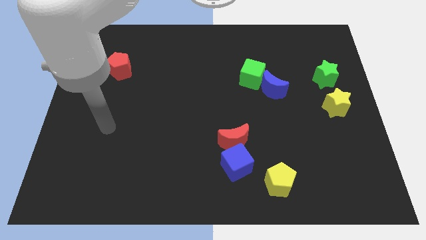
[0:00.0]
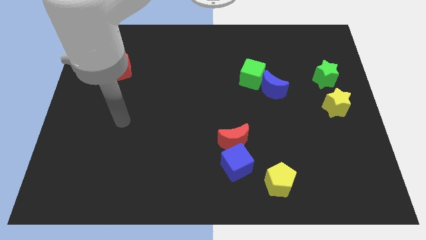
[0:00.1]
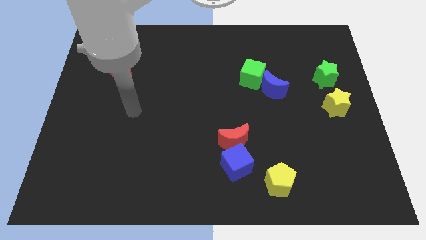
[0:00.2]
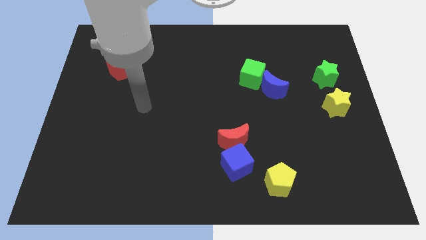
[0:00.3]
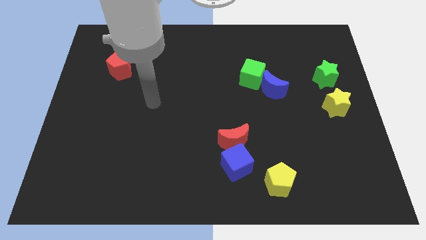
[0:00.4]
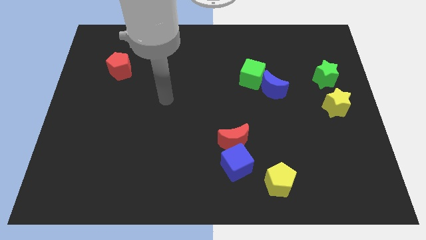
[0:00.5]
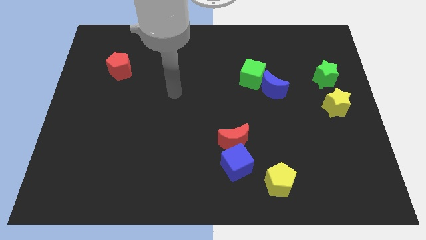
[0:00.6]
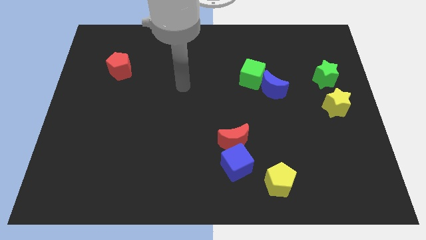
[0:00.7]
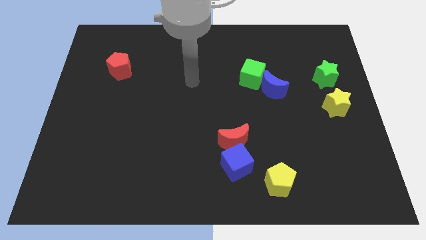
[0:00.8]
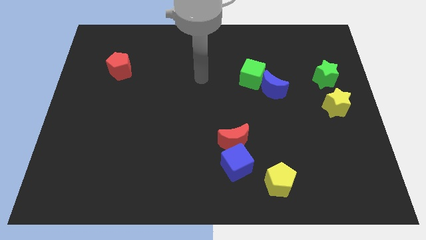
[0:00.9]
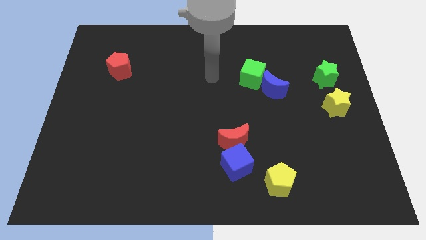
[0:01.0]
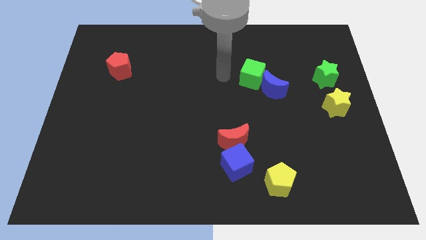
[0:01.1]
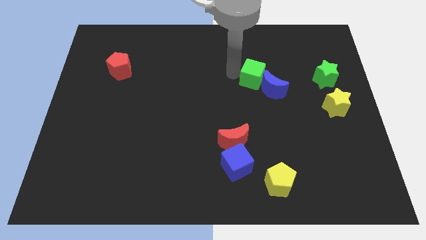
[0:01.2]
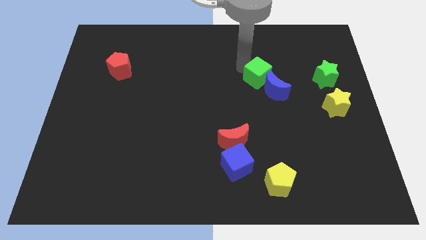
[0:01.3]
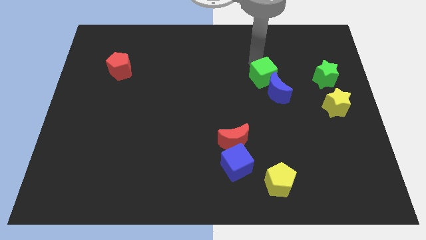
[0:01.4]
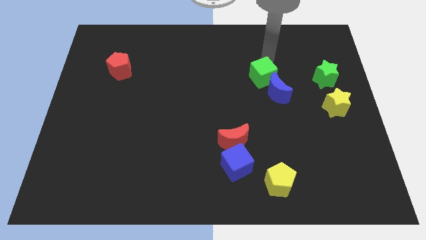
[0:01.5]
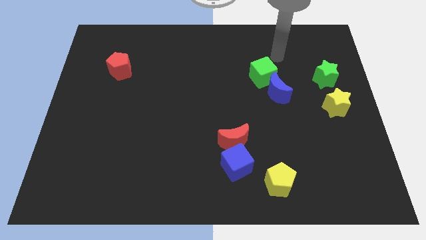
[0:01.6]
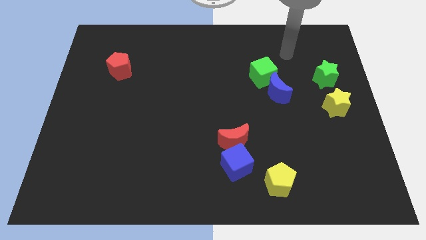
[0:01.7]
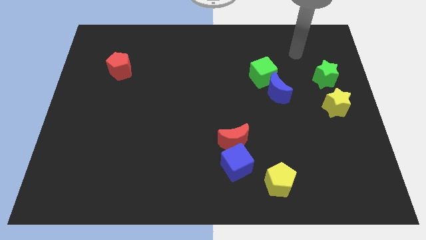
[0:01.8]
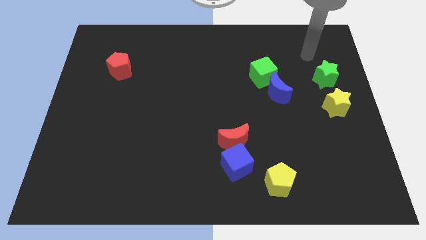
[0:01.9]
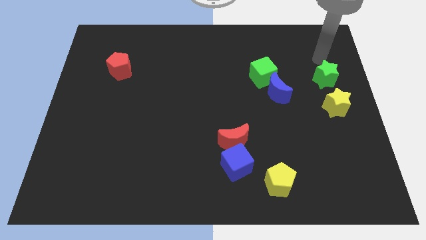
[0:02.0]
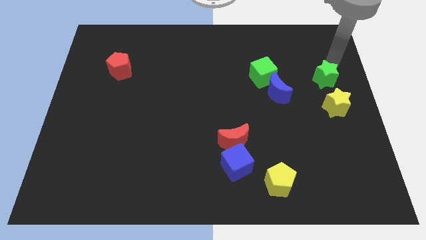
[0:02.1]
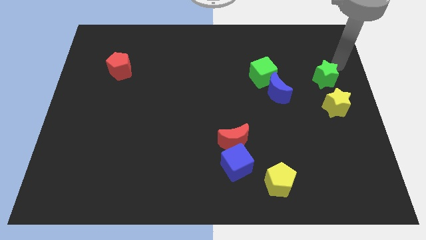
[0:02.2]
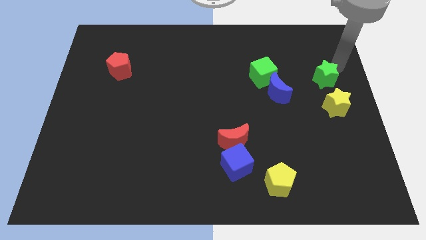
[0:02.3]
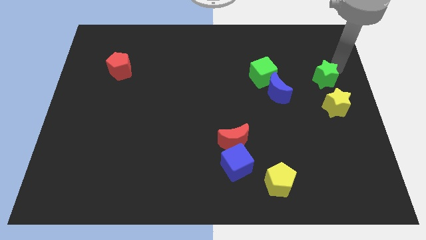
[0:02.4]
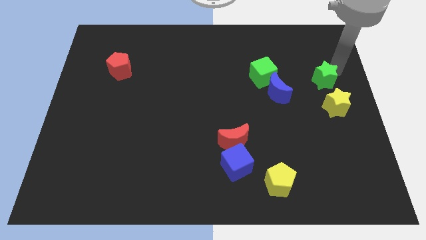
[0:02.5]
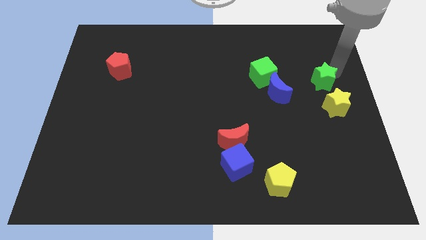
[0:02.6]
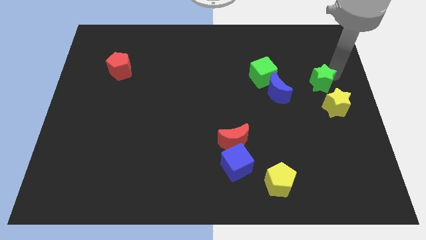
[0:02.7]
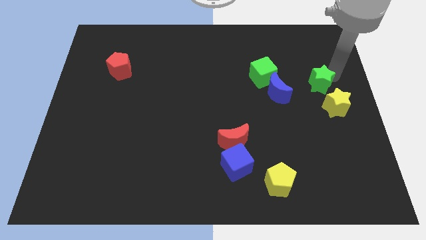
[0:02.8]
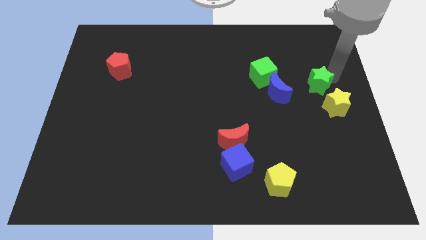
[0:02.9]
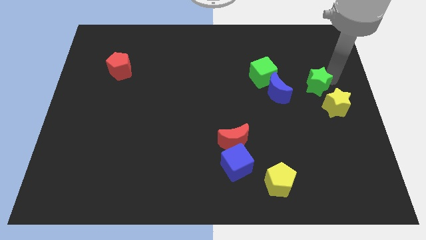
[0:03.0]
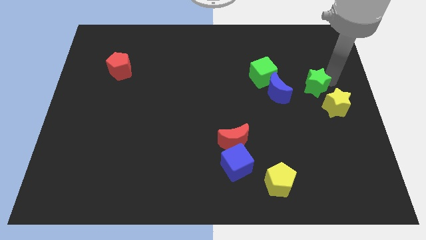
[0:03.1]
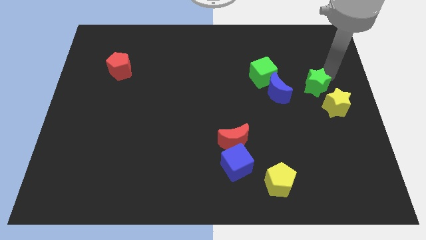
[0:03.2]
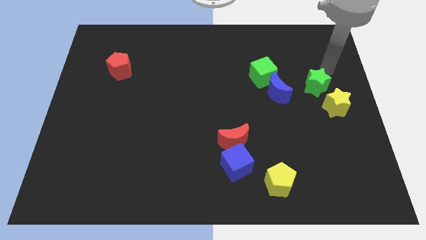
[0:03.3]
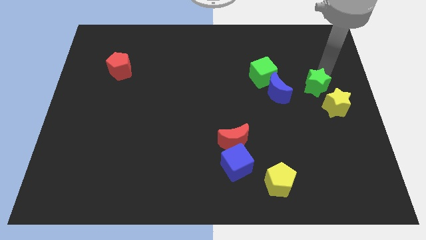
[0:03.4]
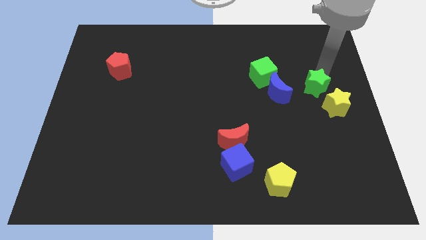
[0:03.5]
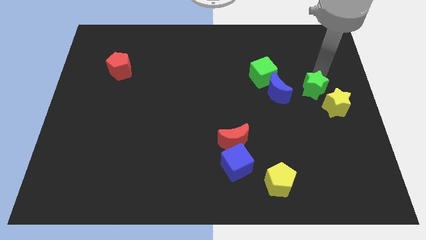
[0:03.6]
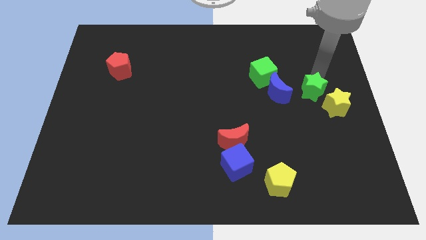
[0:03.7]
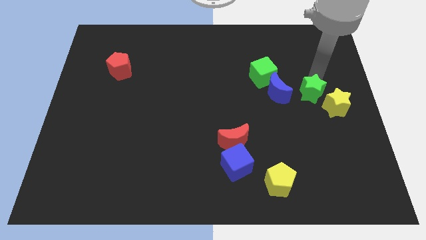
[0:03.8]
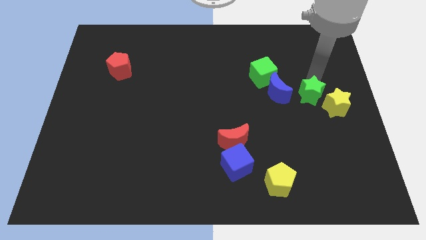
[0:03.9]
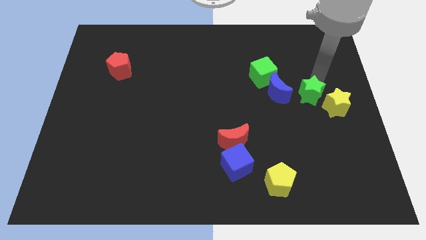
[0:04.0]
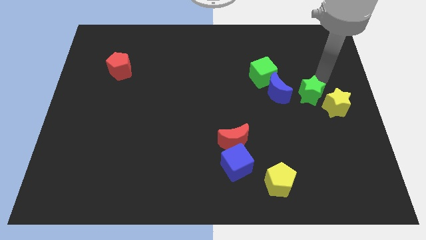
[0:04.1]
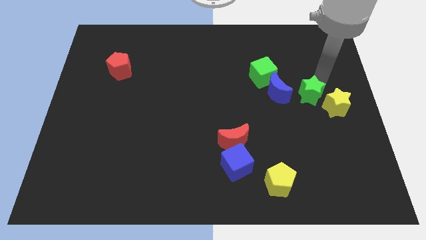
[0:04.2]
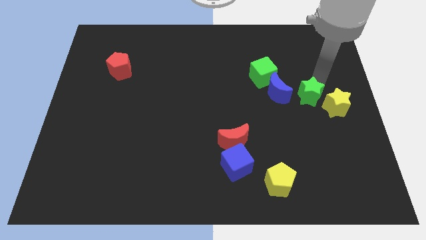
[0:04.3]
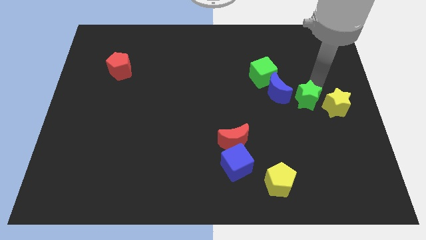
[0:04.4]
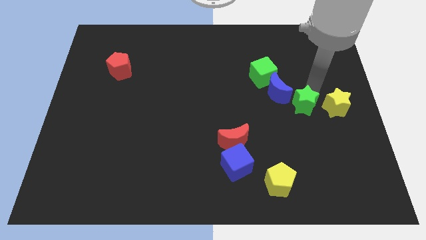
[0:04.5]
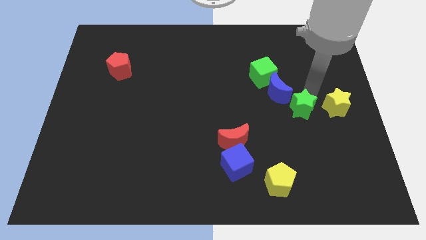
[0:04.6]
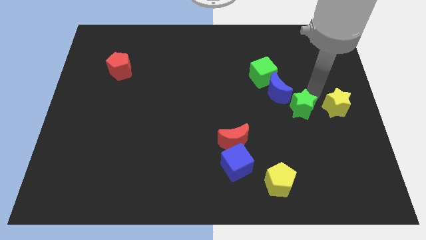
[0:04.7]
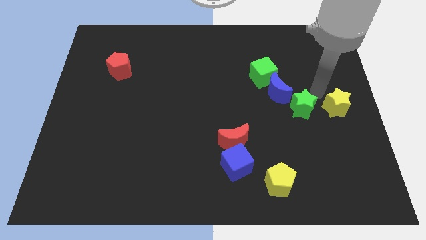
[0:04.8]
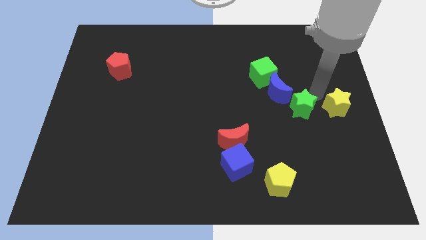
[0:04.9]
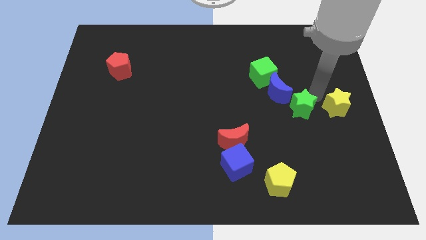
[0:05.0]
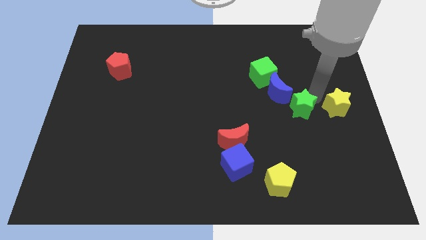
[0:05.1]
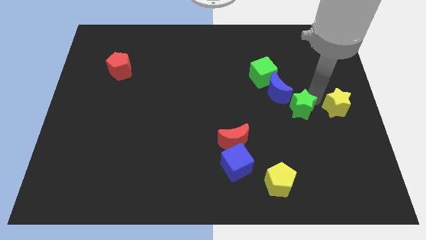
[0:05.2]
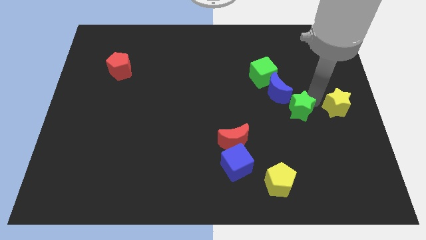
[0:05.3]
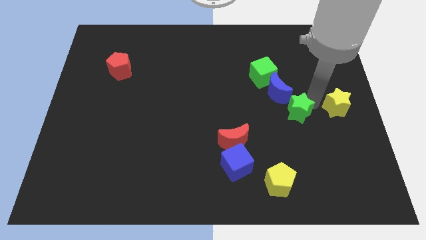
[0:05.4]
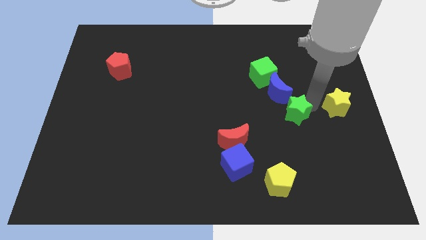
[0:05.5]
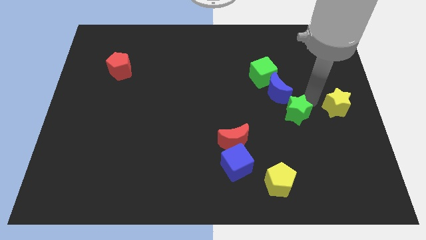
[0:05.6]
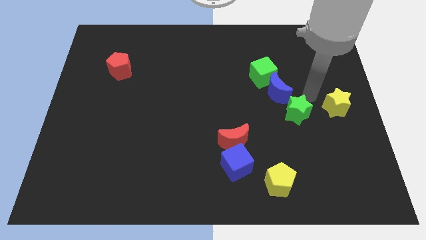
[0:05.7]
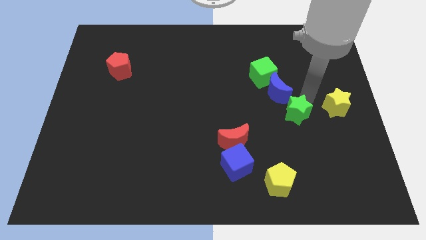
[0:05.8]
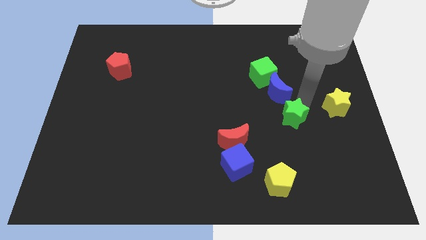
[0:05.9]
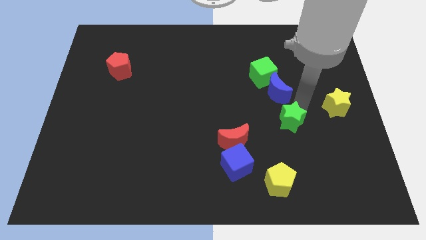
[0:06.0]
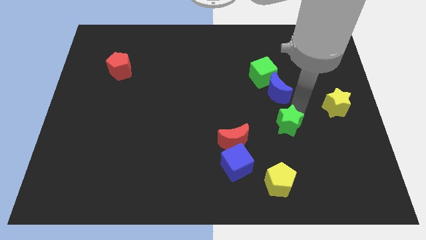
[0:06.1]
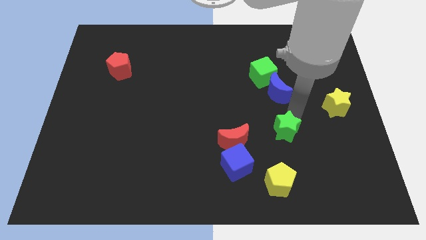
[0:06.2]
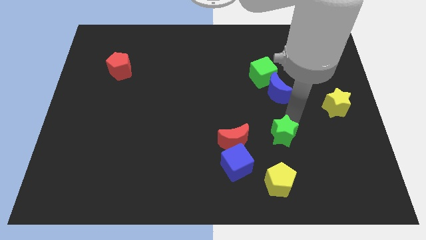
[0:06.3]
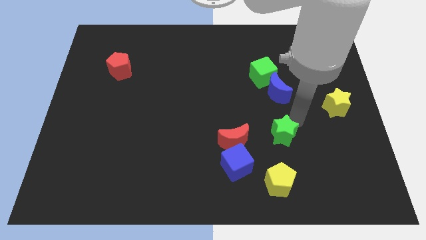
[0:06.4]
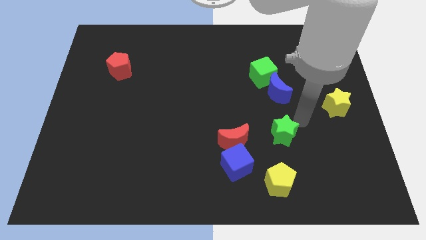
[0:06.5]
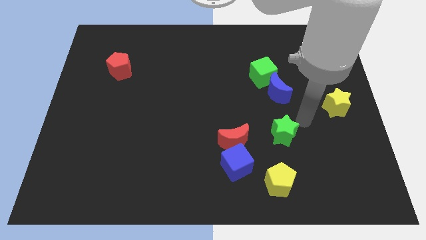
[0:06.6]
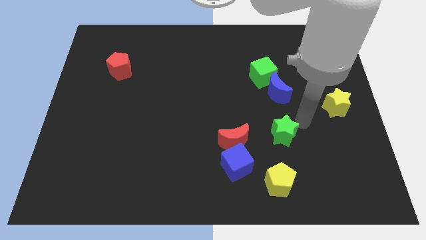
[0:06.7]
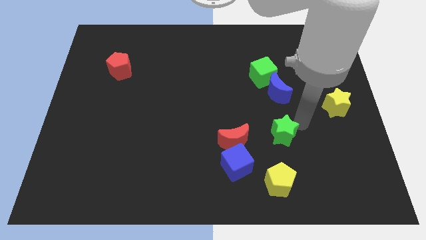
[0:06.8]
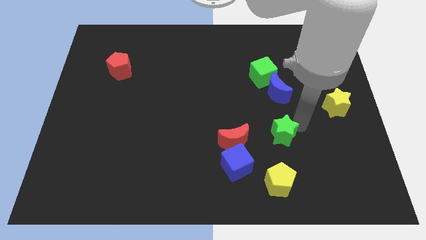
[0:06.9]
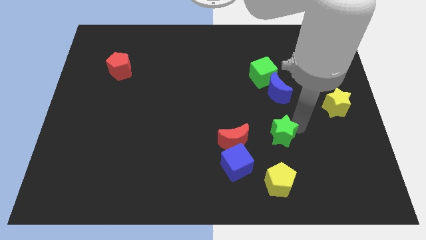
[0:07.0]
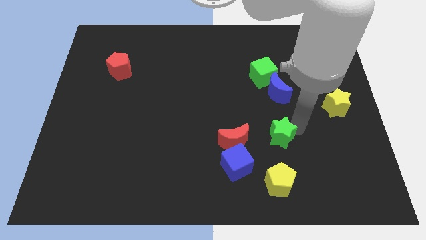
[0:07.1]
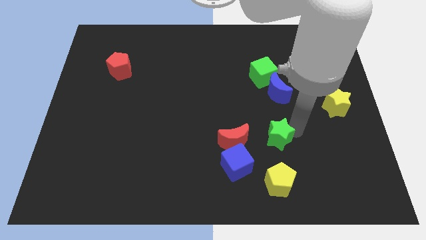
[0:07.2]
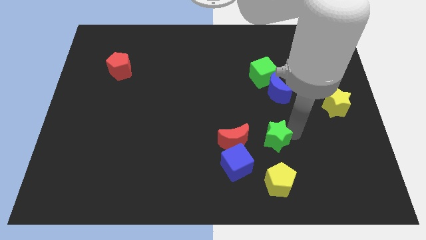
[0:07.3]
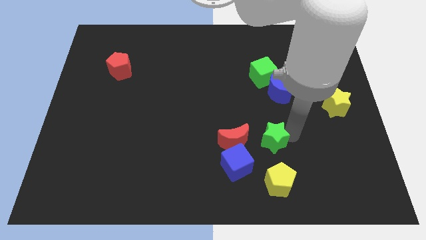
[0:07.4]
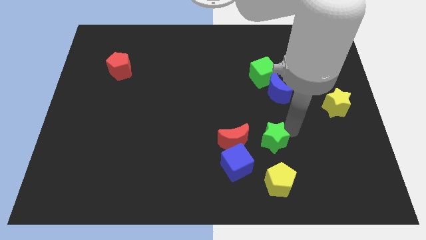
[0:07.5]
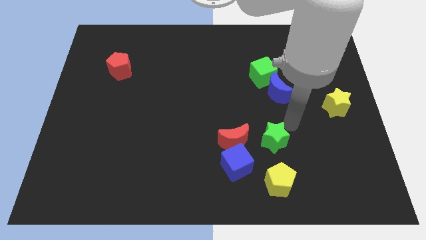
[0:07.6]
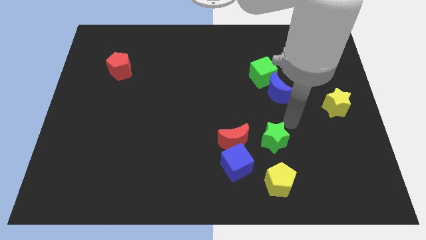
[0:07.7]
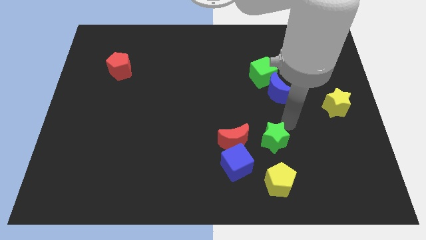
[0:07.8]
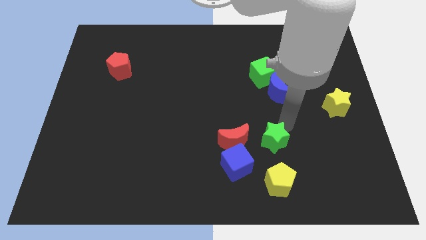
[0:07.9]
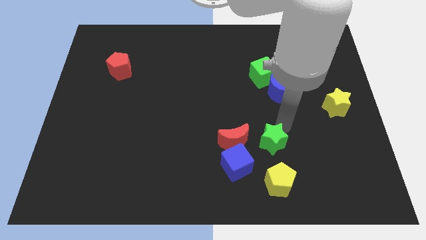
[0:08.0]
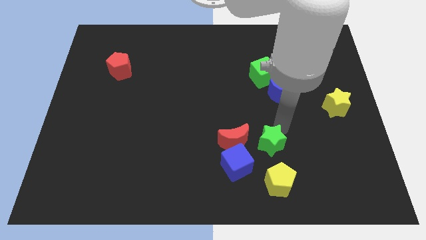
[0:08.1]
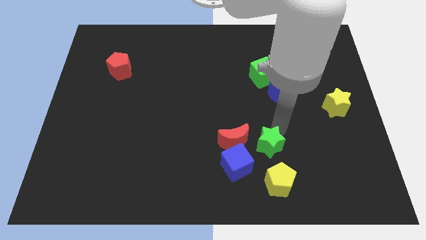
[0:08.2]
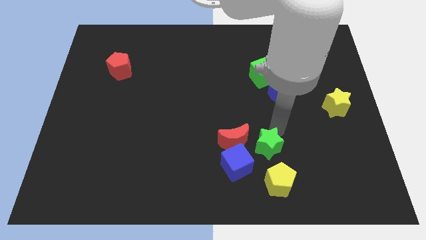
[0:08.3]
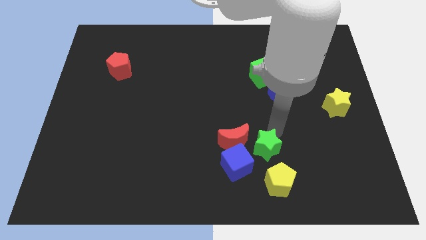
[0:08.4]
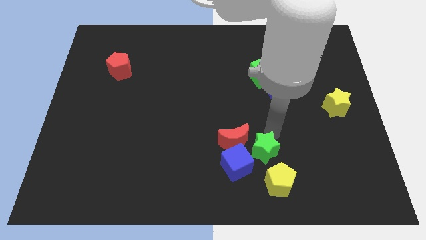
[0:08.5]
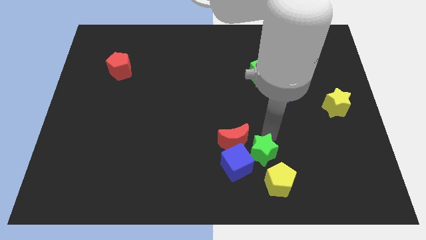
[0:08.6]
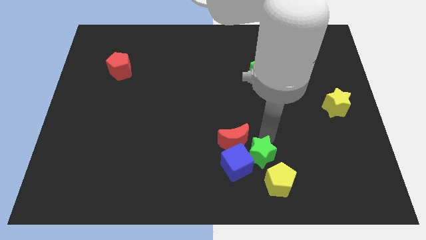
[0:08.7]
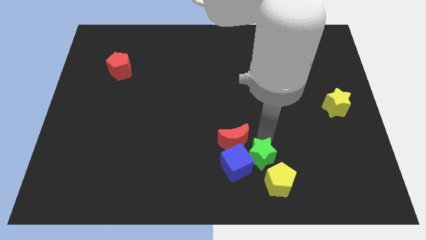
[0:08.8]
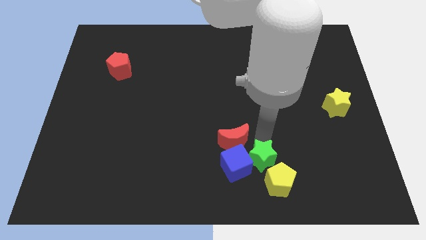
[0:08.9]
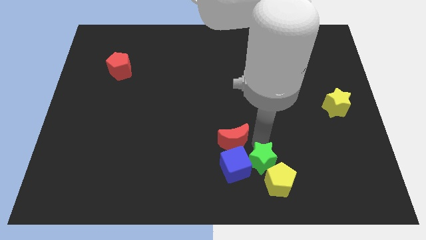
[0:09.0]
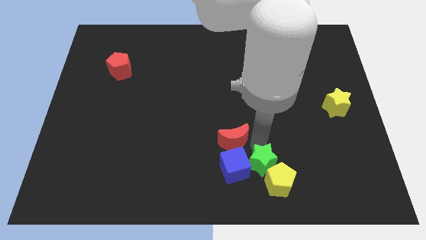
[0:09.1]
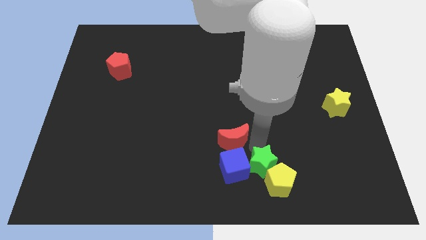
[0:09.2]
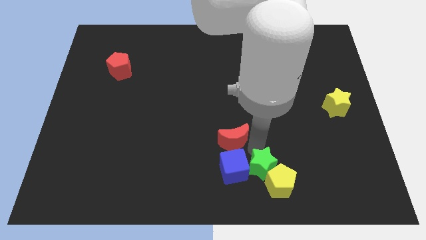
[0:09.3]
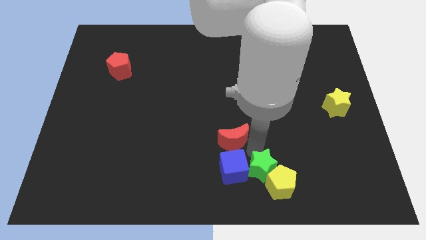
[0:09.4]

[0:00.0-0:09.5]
push the green star to the bottom
